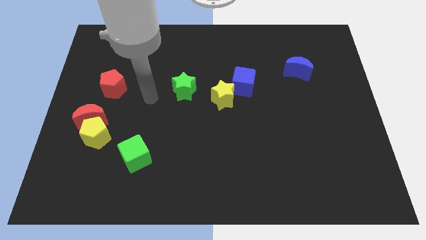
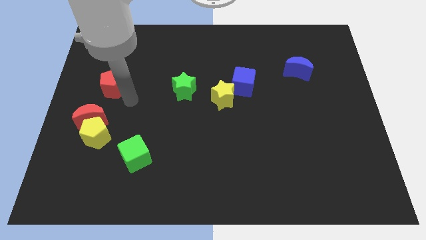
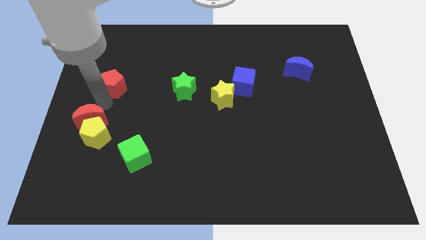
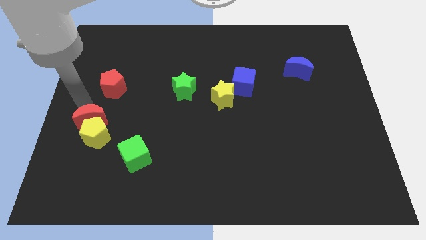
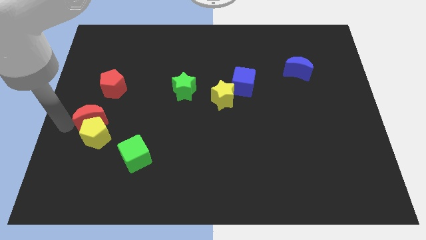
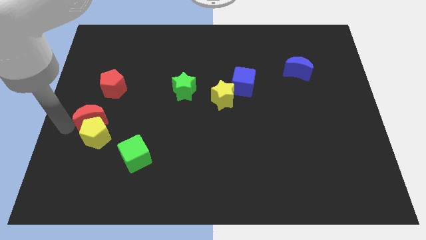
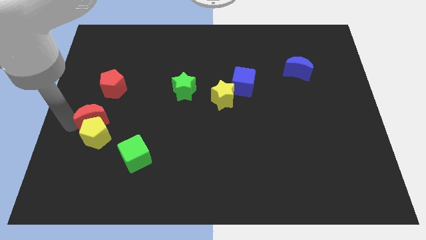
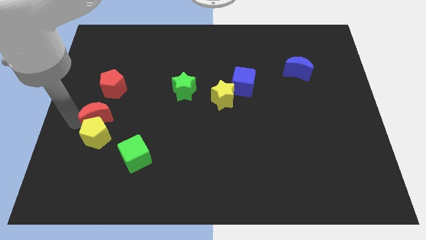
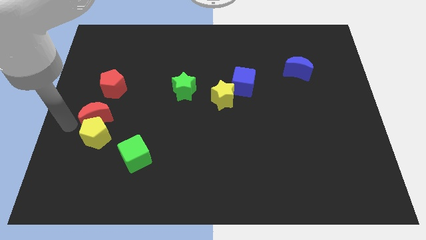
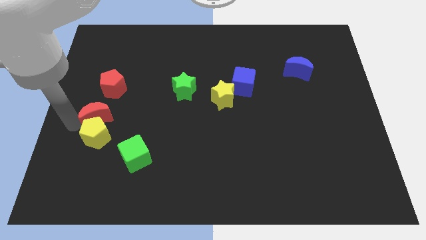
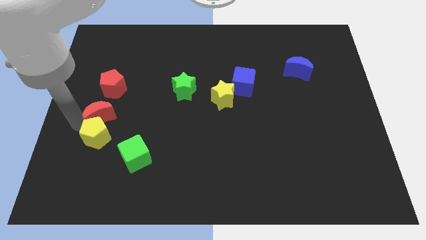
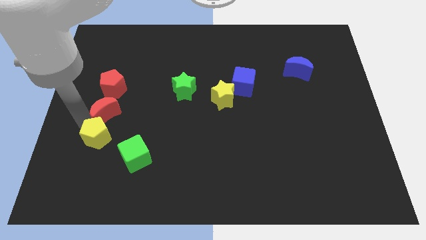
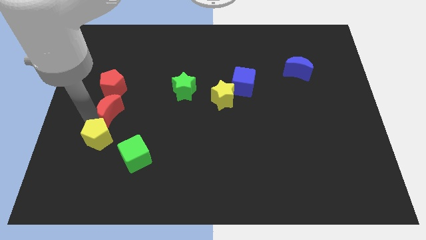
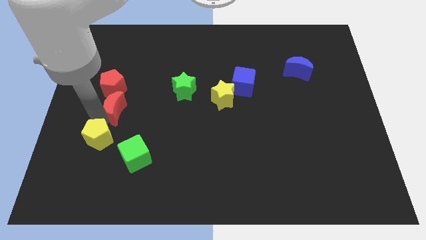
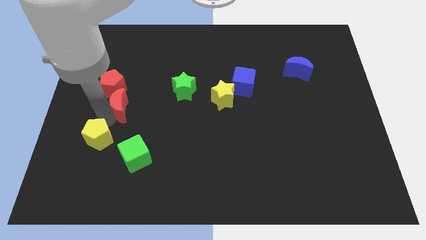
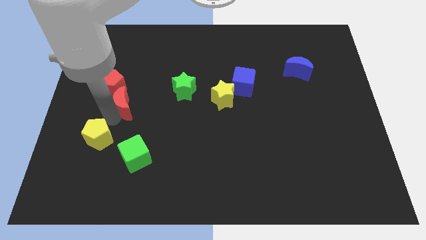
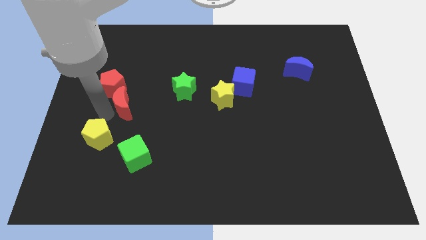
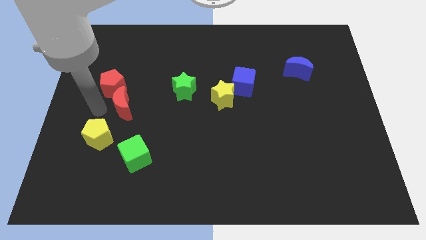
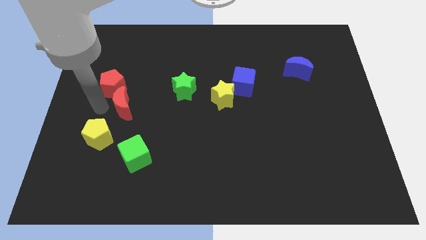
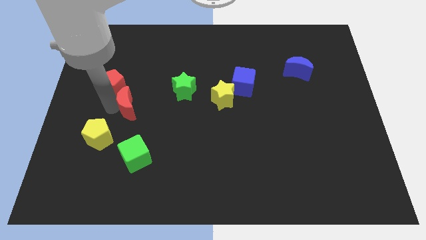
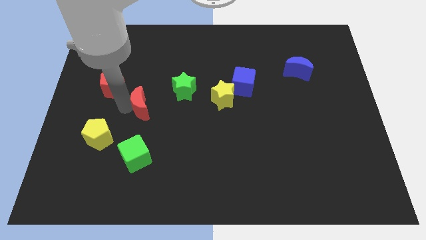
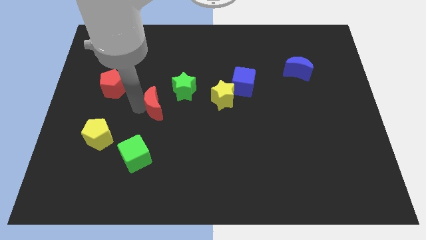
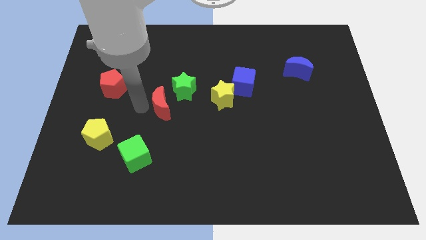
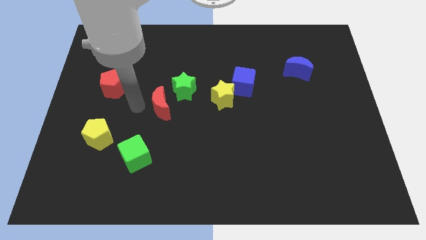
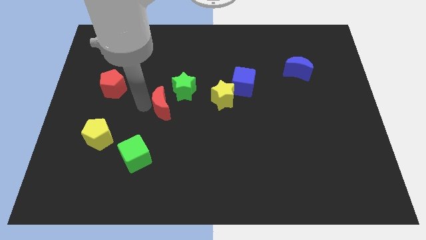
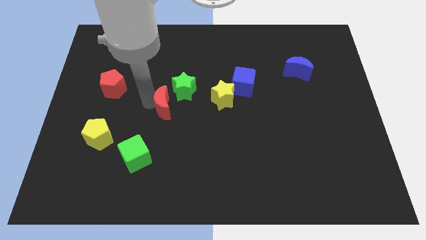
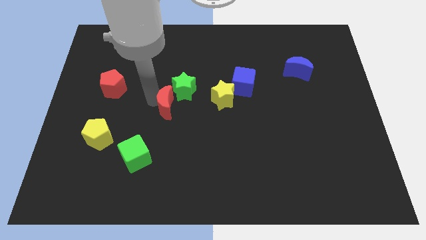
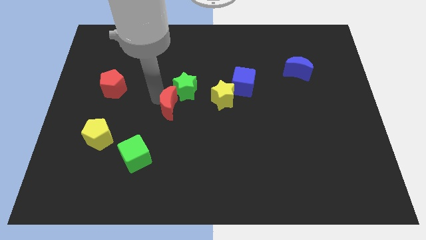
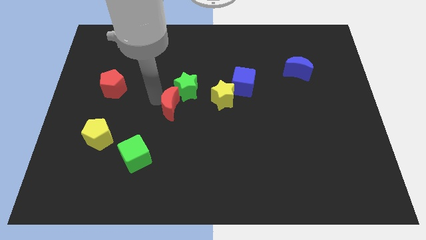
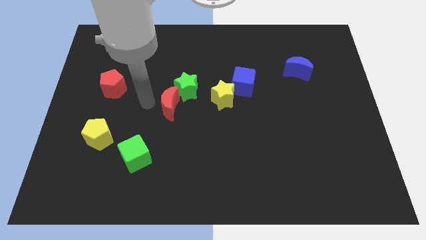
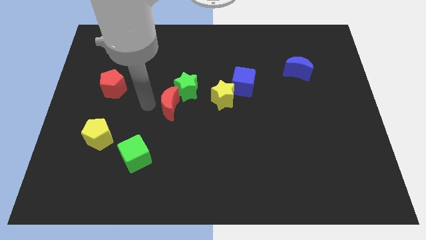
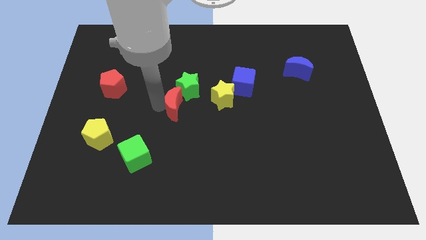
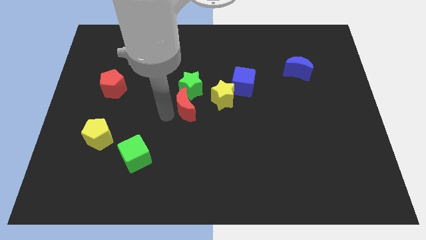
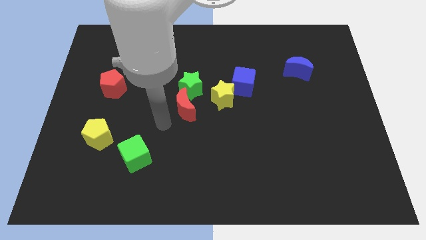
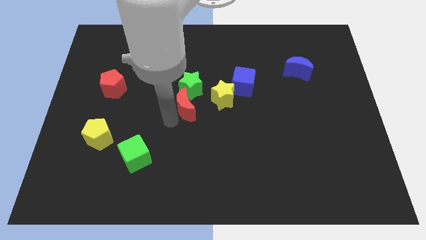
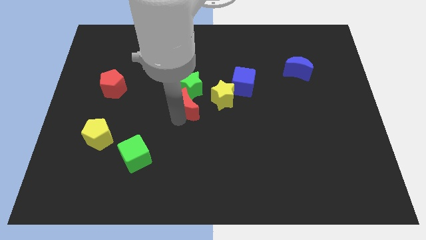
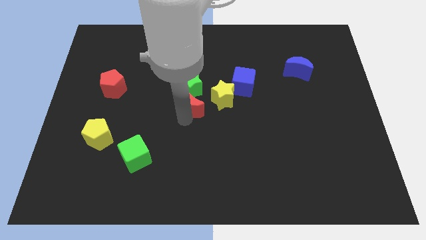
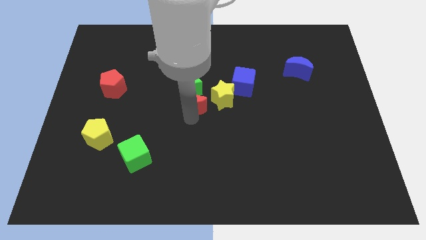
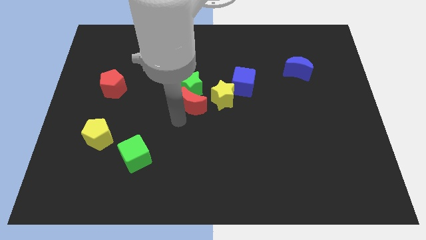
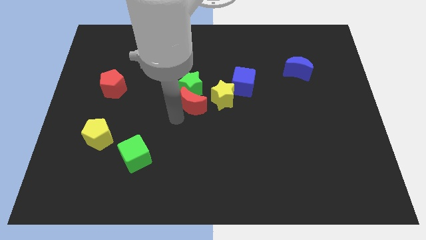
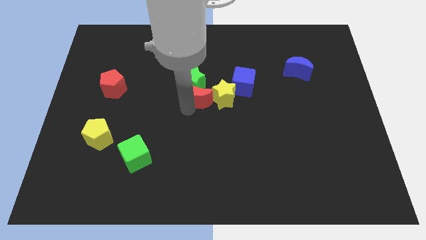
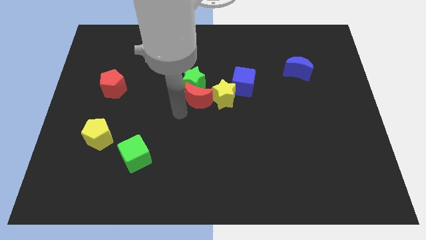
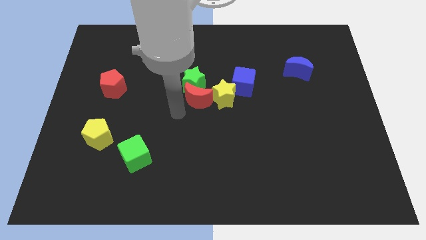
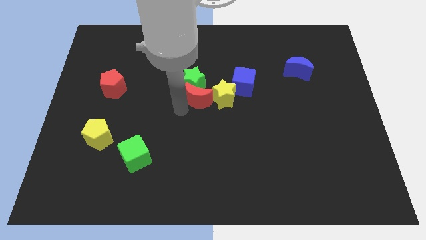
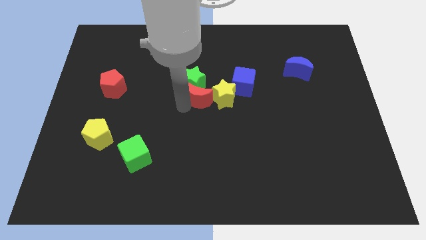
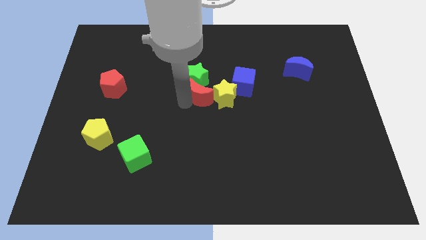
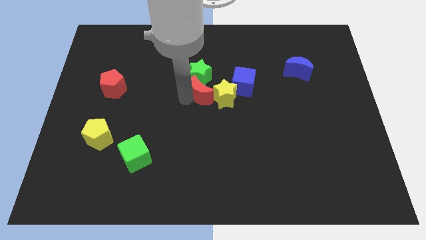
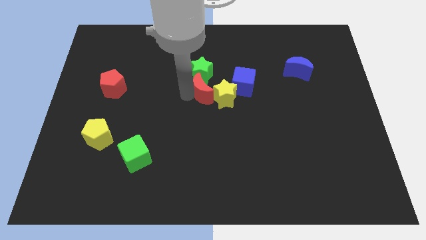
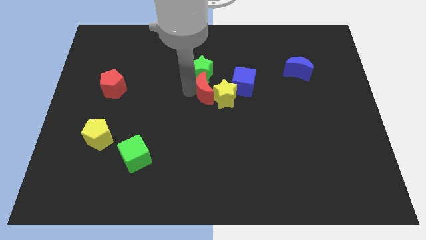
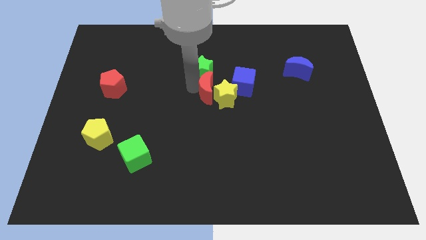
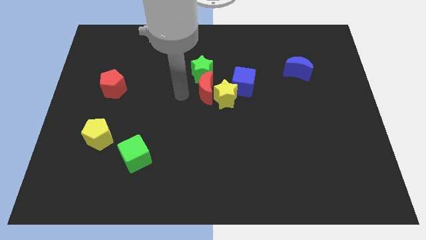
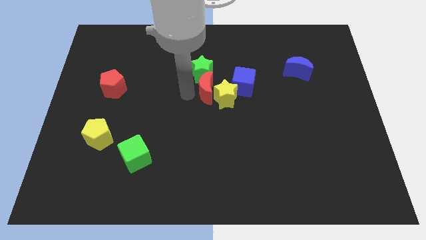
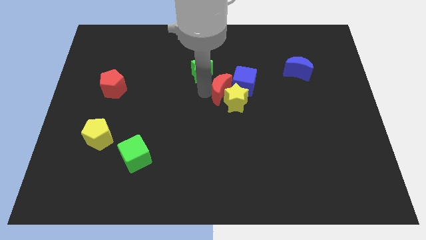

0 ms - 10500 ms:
push the red moon close to the blue cube

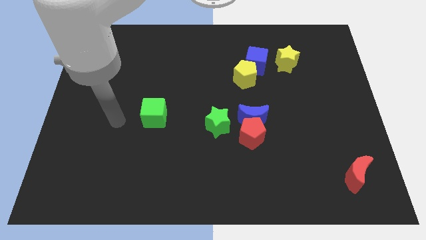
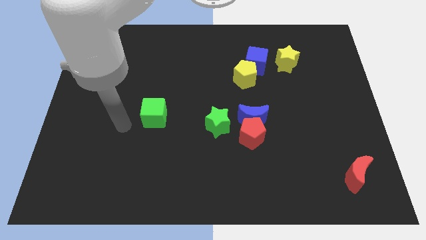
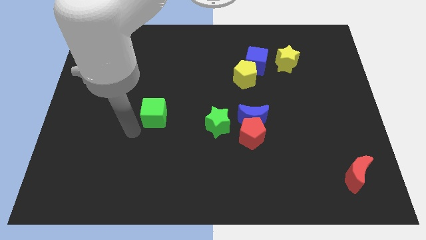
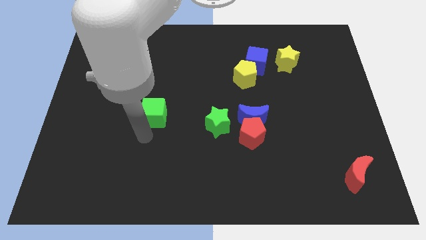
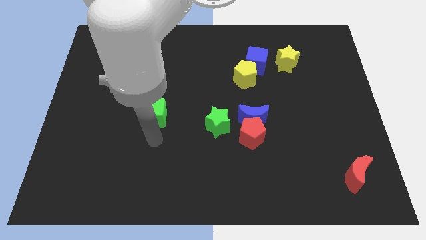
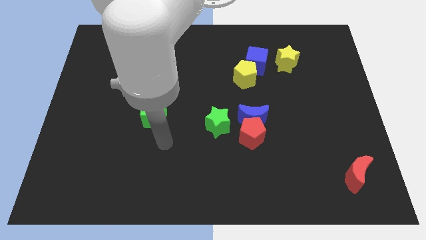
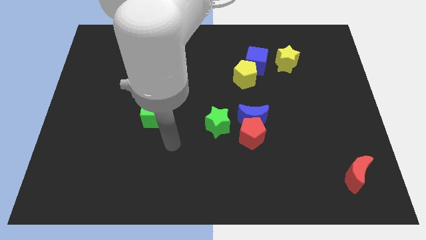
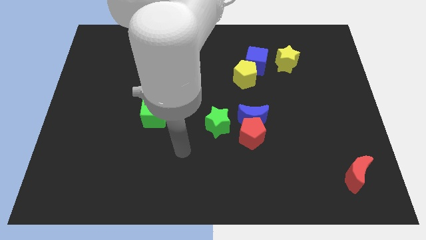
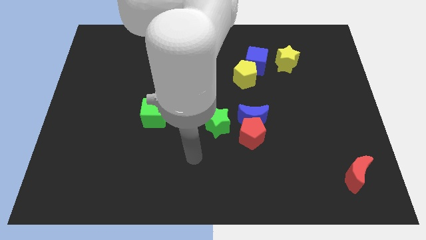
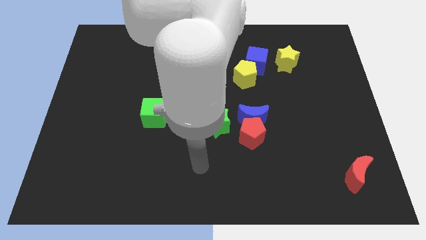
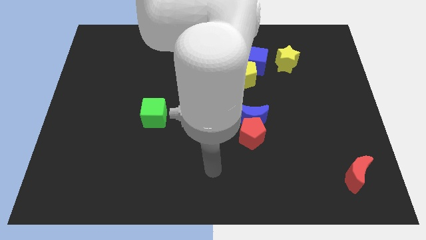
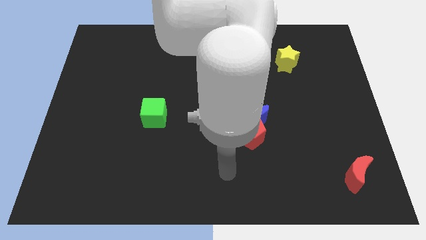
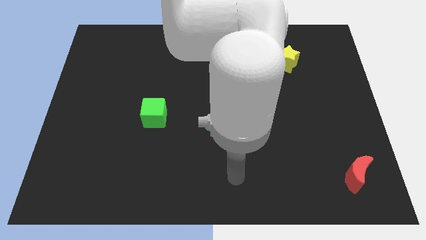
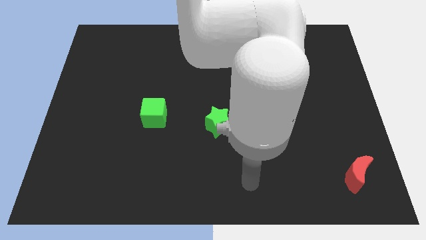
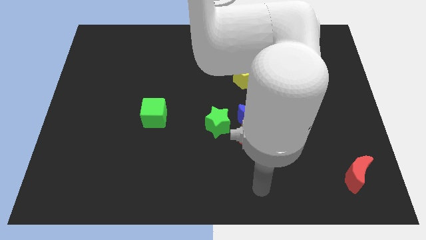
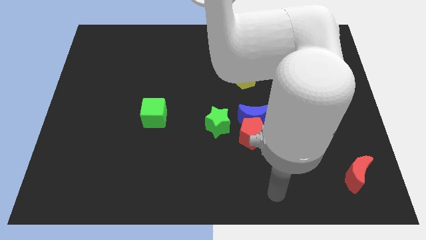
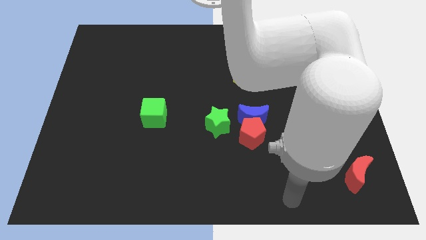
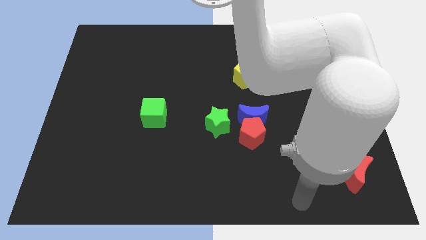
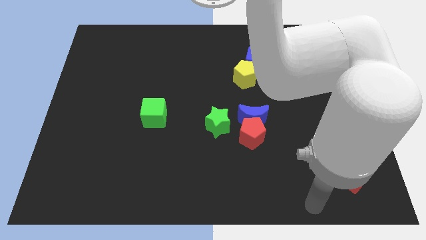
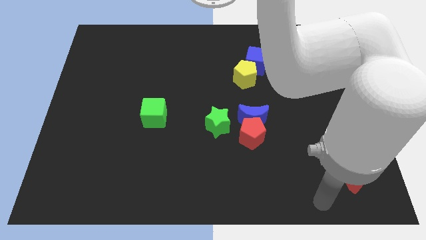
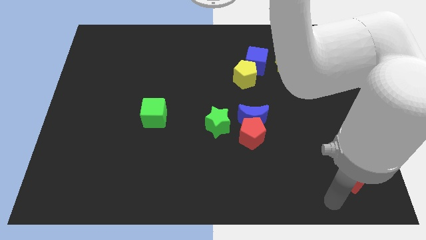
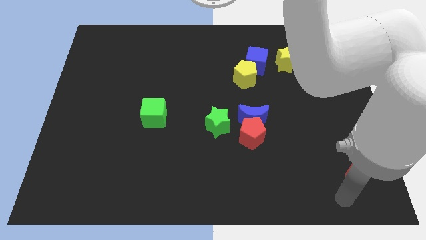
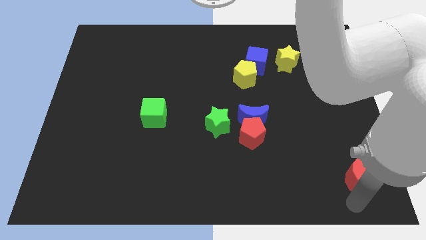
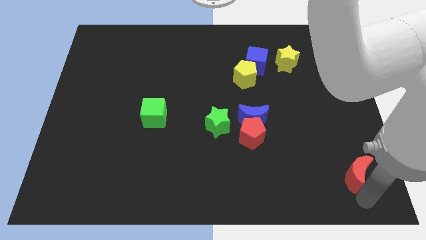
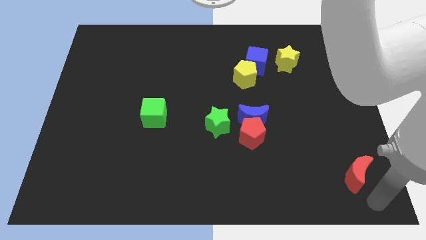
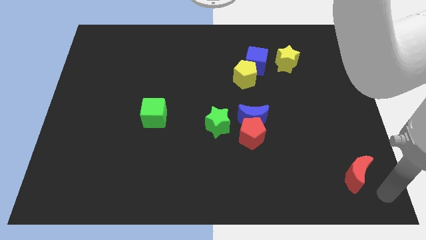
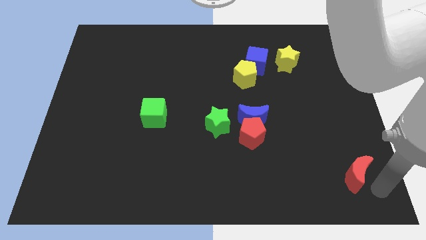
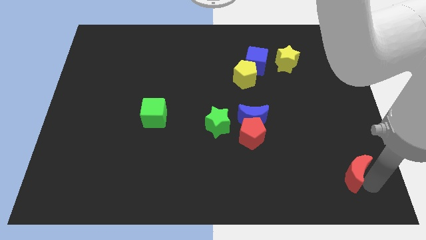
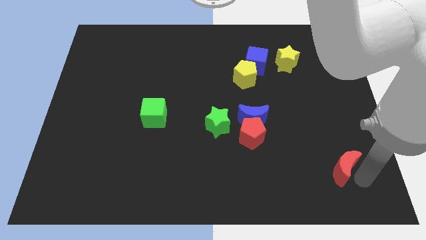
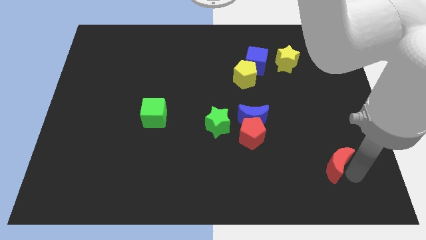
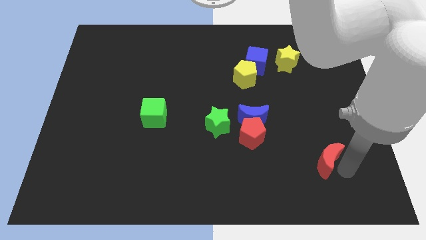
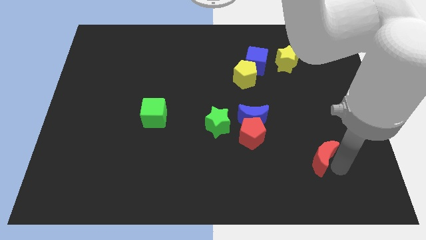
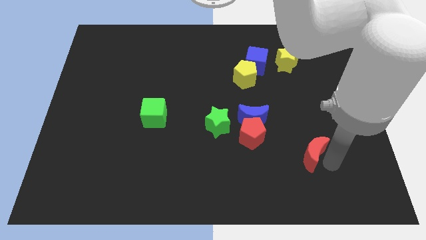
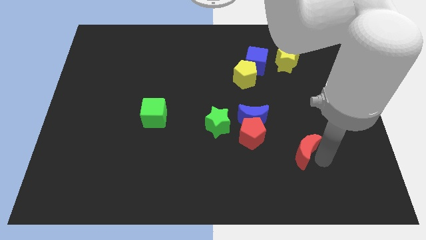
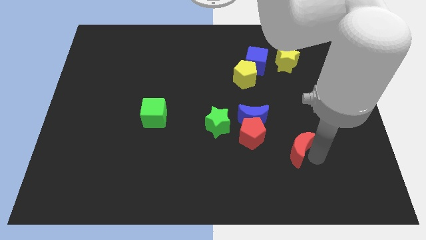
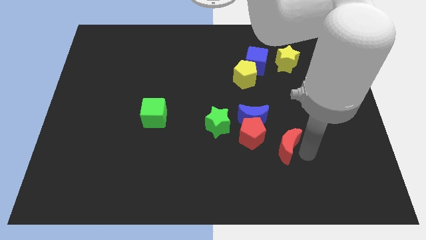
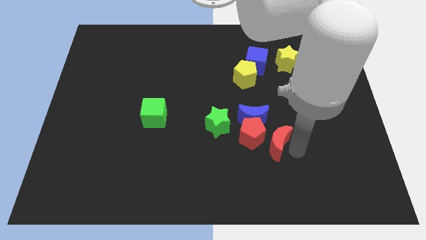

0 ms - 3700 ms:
slide the red moon next to the red pentagon
